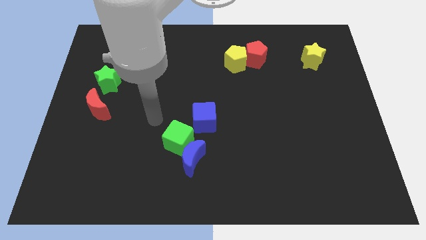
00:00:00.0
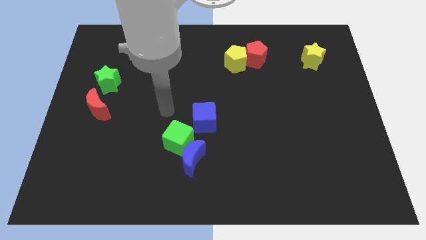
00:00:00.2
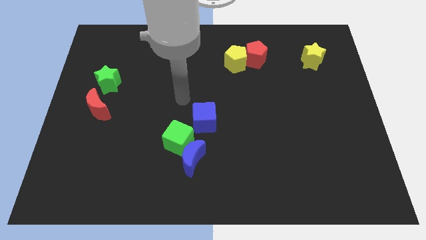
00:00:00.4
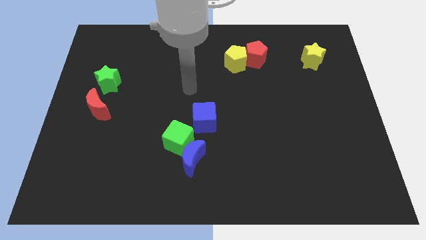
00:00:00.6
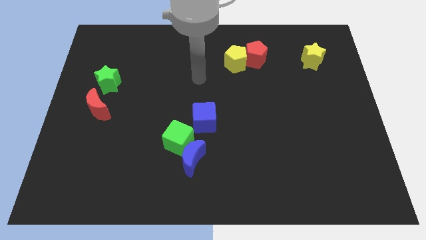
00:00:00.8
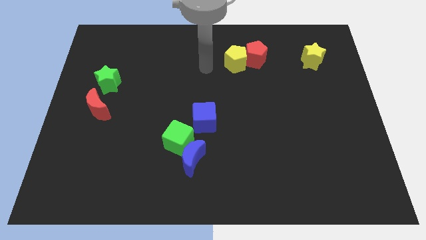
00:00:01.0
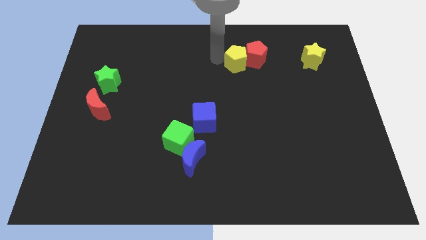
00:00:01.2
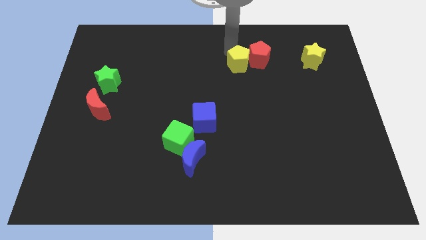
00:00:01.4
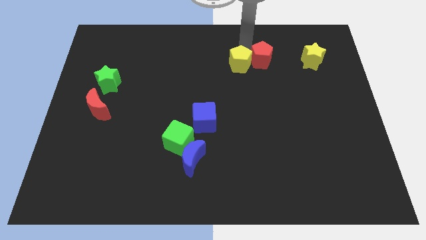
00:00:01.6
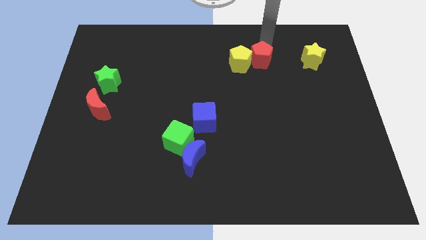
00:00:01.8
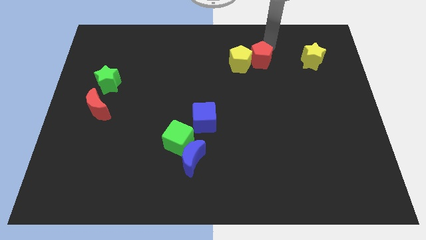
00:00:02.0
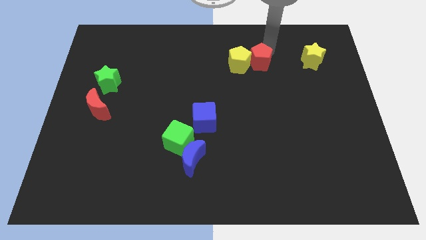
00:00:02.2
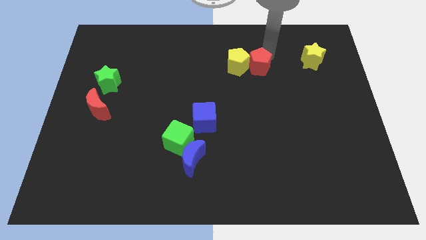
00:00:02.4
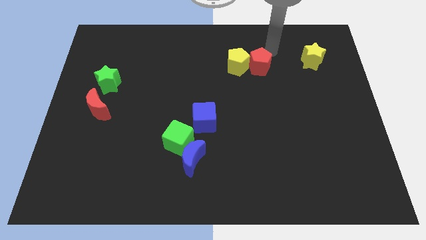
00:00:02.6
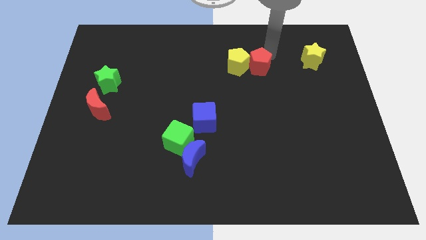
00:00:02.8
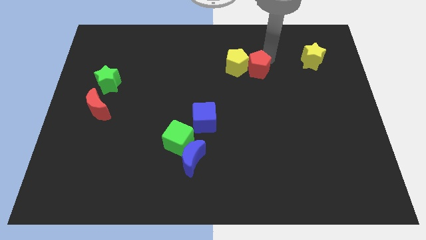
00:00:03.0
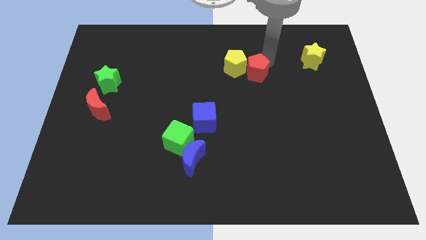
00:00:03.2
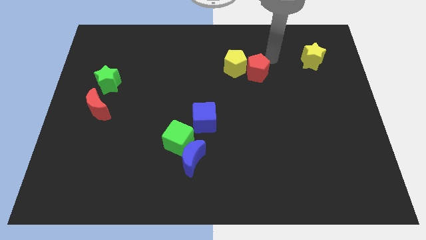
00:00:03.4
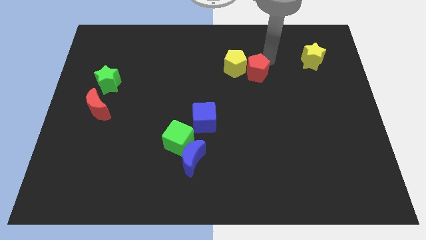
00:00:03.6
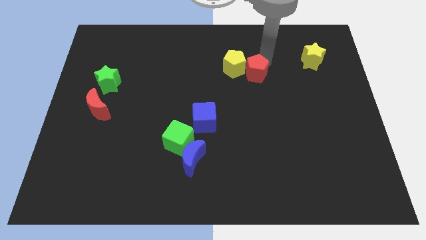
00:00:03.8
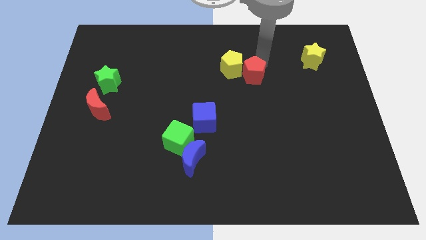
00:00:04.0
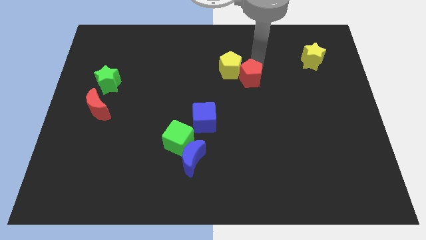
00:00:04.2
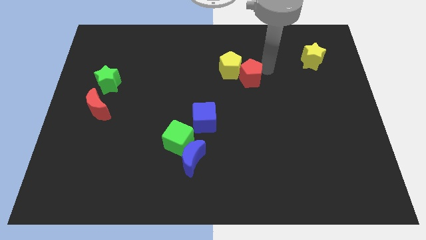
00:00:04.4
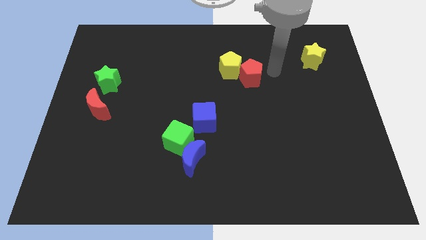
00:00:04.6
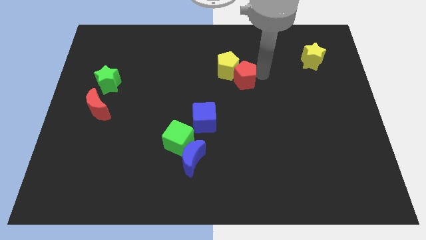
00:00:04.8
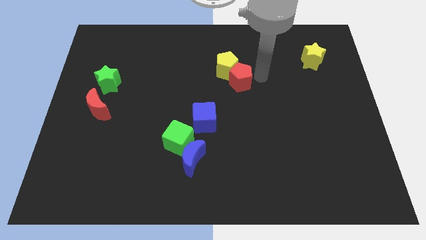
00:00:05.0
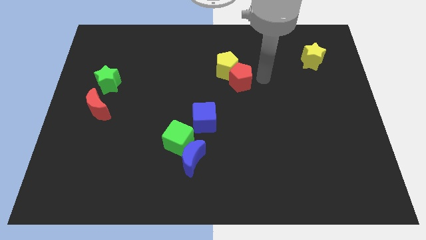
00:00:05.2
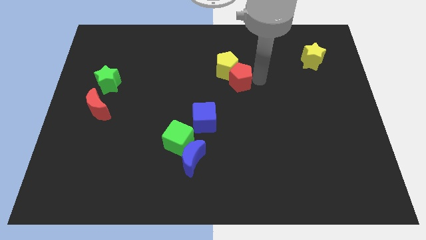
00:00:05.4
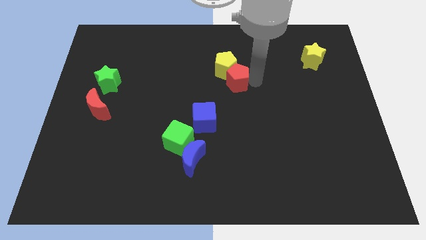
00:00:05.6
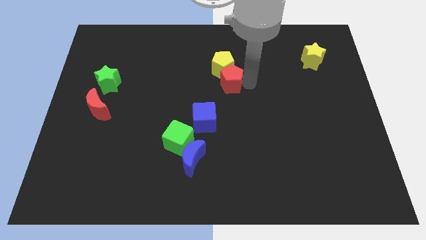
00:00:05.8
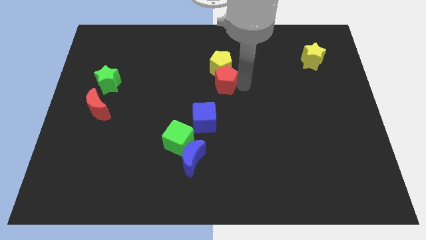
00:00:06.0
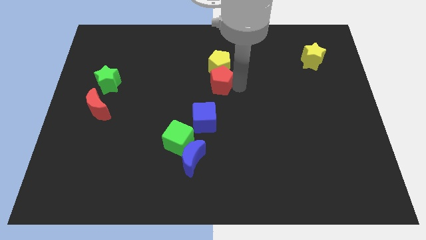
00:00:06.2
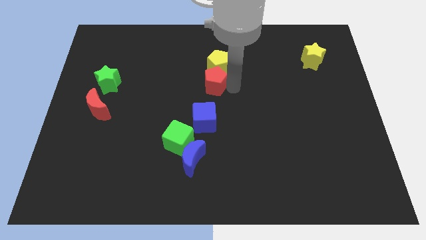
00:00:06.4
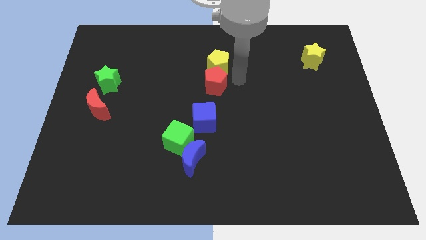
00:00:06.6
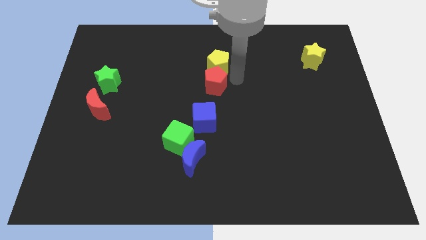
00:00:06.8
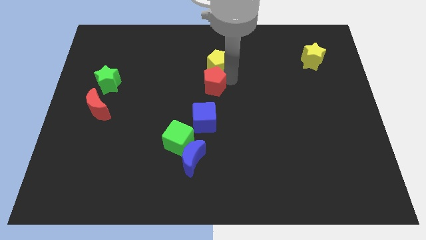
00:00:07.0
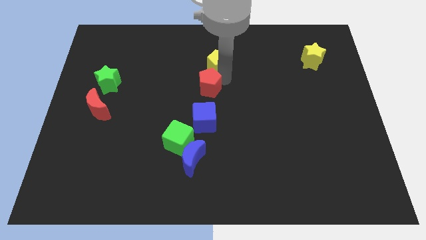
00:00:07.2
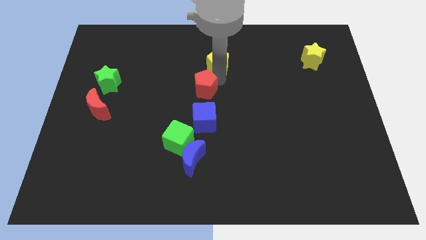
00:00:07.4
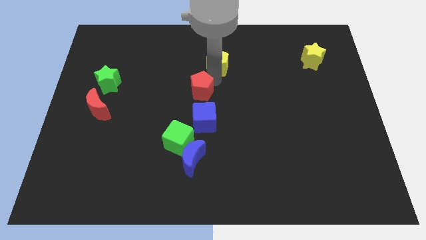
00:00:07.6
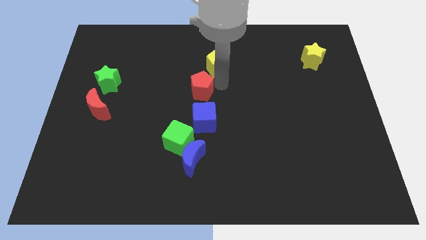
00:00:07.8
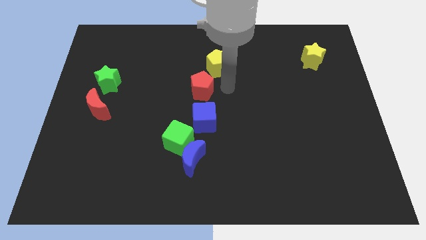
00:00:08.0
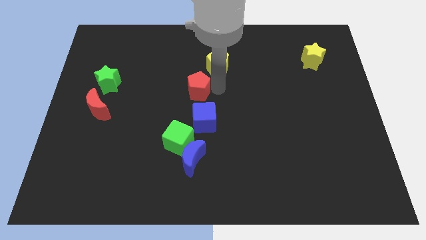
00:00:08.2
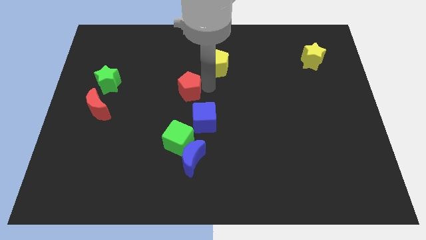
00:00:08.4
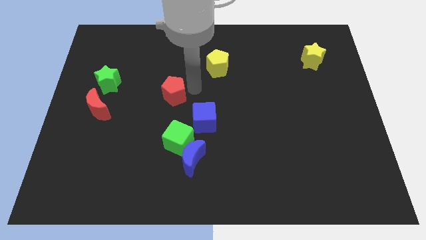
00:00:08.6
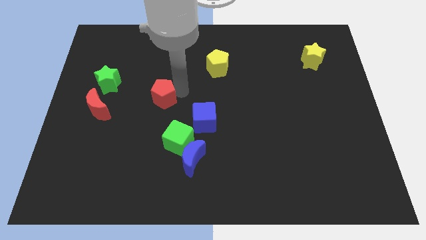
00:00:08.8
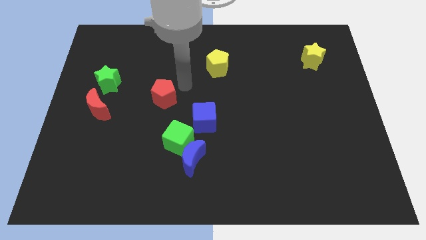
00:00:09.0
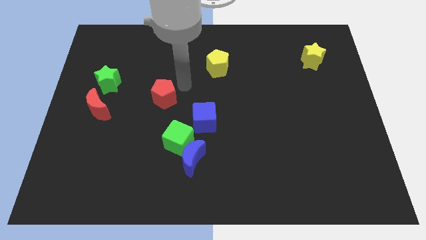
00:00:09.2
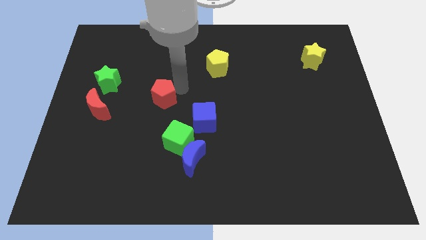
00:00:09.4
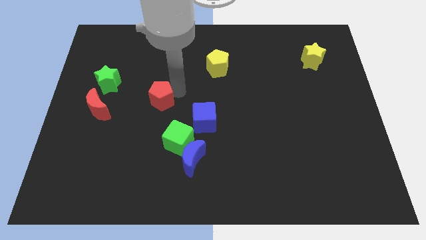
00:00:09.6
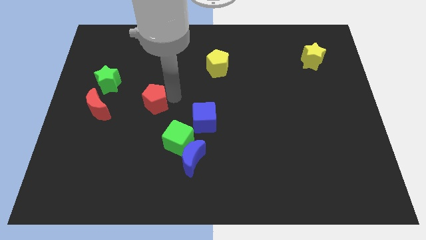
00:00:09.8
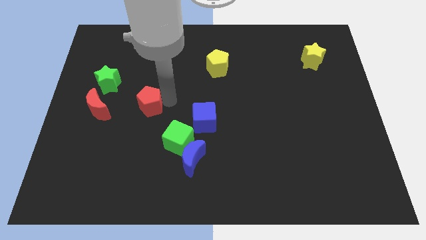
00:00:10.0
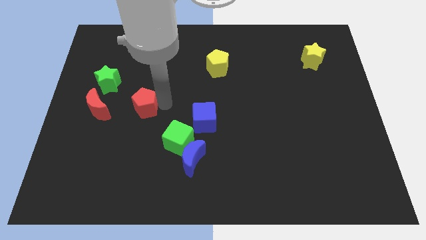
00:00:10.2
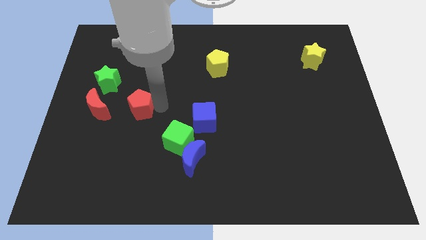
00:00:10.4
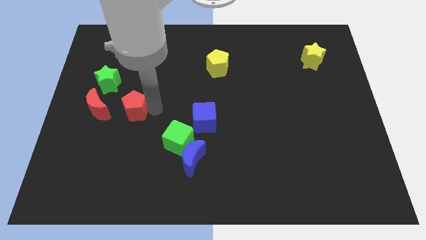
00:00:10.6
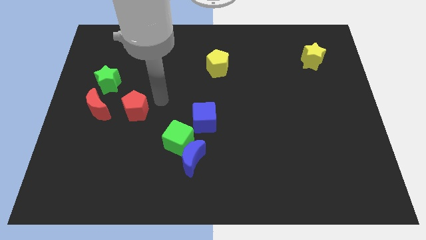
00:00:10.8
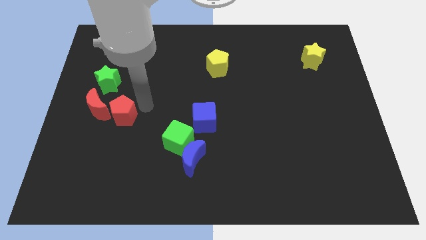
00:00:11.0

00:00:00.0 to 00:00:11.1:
slide the red pentagon to the bottom side of the green star

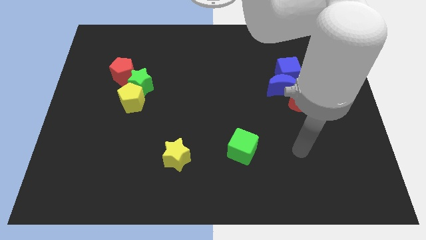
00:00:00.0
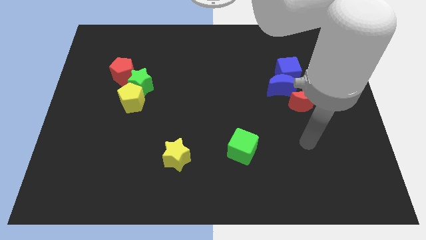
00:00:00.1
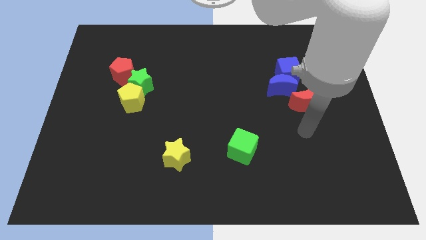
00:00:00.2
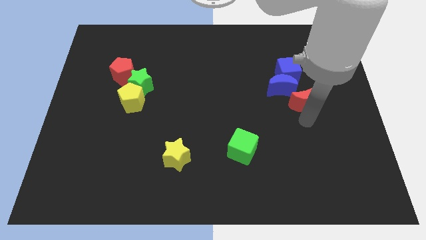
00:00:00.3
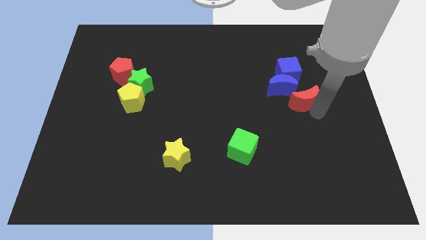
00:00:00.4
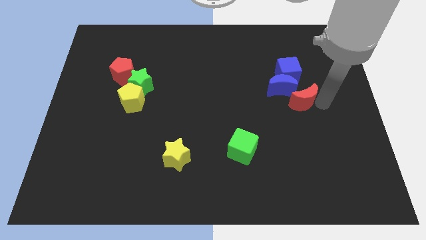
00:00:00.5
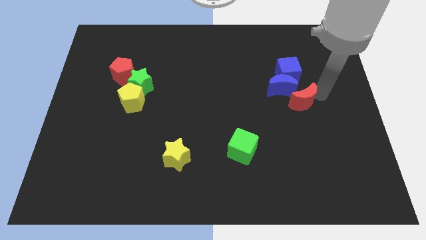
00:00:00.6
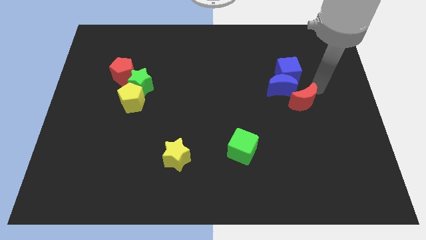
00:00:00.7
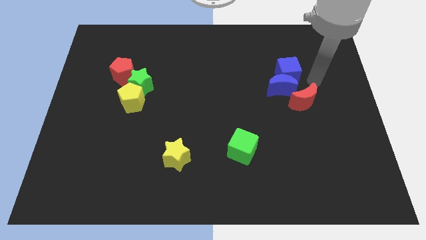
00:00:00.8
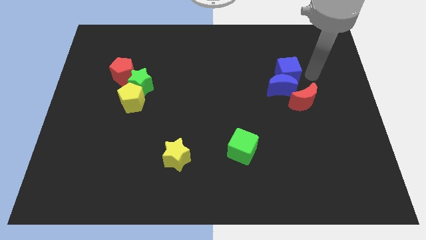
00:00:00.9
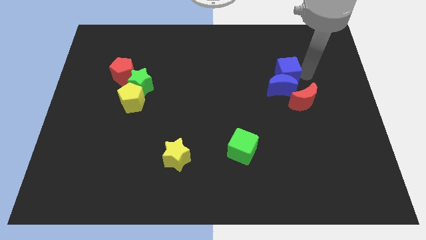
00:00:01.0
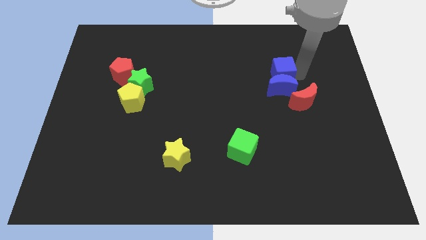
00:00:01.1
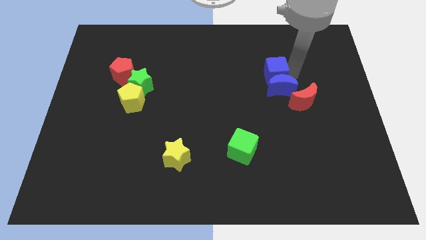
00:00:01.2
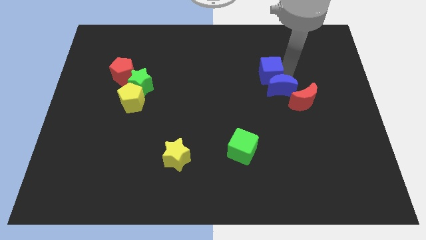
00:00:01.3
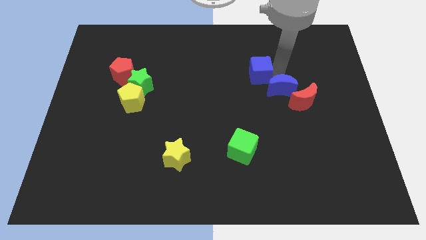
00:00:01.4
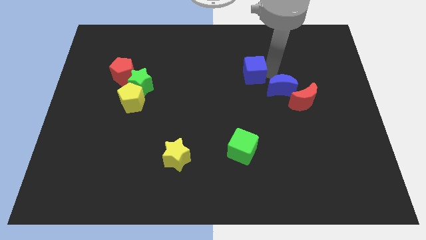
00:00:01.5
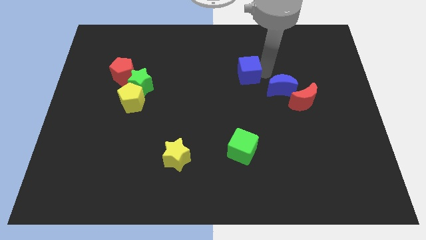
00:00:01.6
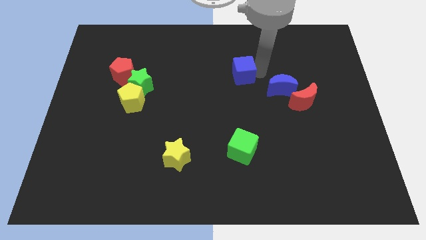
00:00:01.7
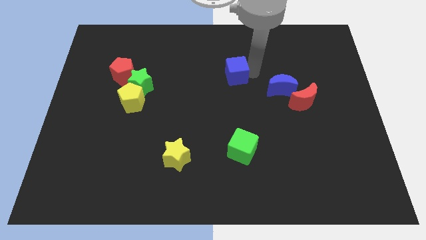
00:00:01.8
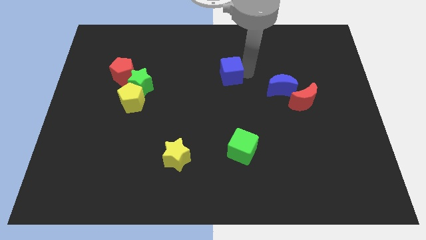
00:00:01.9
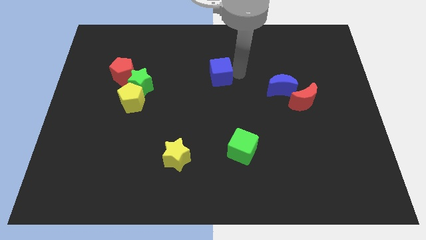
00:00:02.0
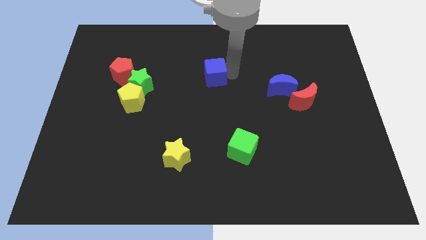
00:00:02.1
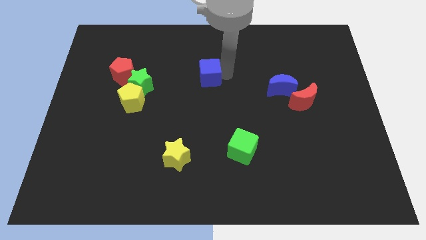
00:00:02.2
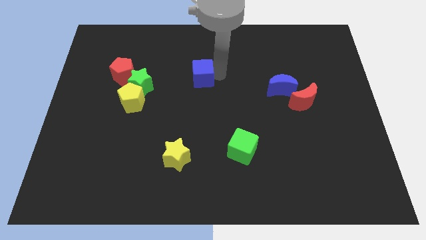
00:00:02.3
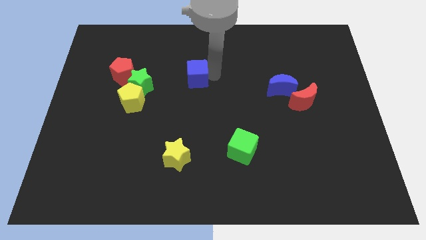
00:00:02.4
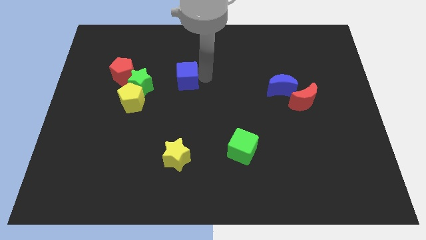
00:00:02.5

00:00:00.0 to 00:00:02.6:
move the blue cube just right of the red pentagon
